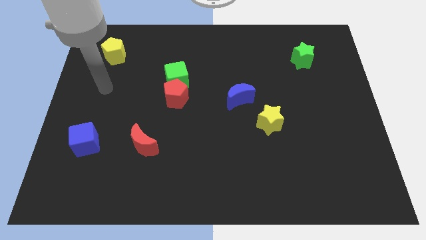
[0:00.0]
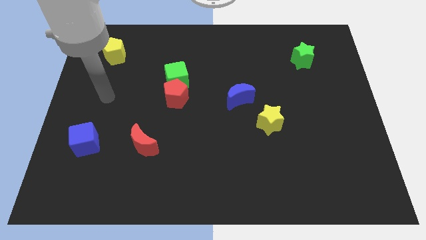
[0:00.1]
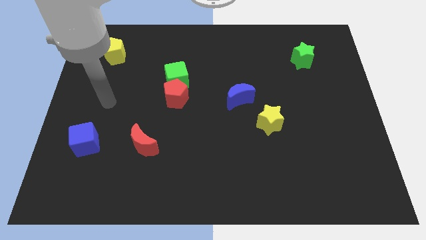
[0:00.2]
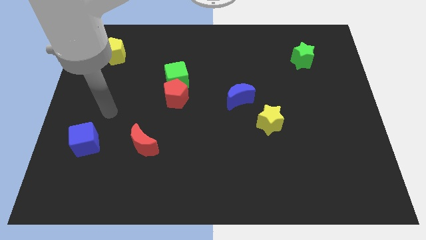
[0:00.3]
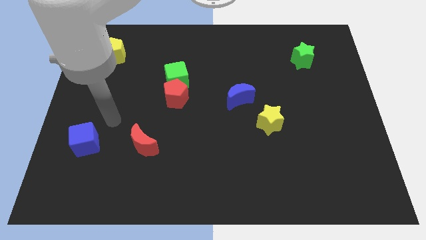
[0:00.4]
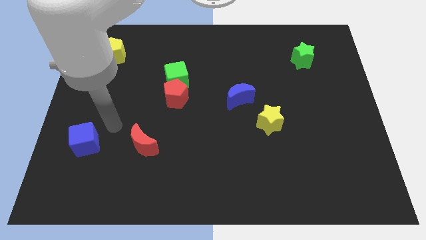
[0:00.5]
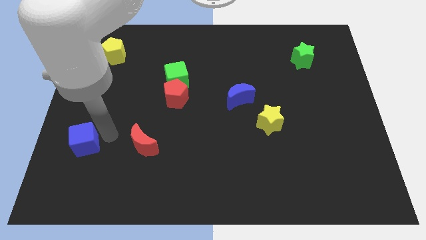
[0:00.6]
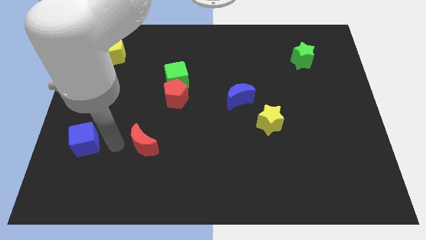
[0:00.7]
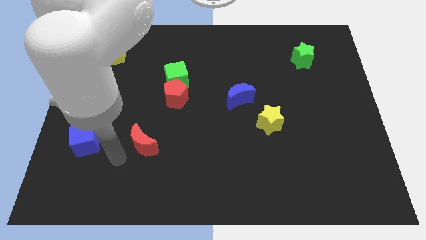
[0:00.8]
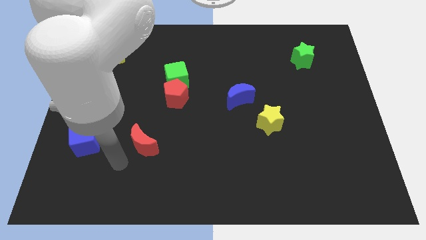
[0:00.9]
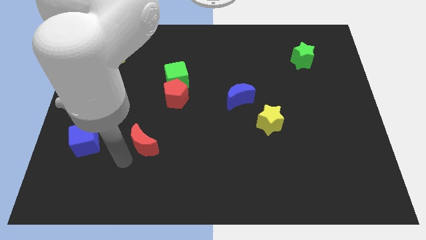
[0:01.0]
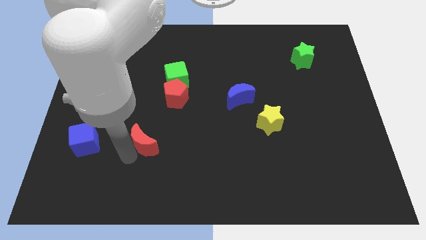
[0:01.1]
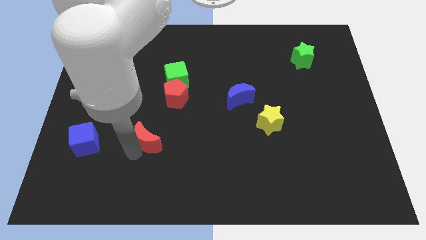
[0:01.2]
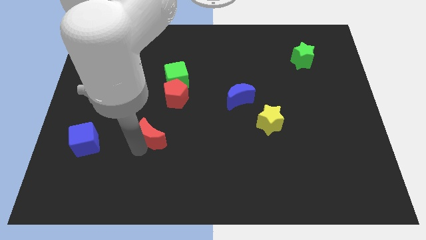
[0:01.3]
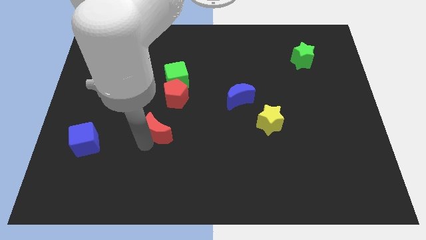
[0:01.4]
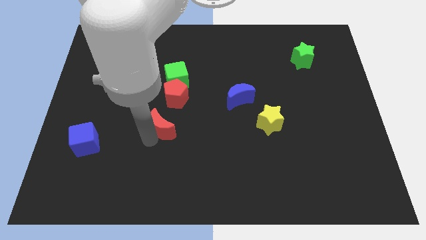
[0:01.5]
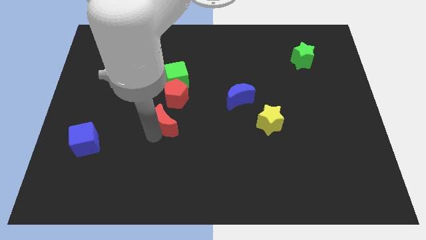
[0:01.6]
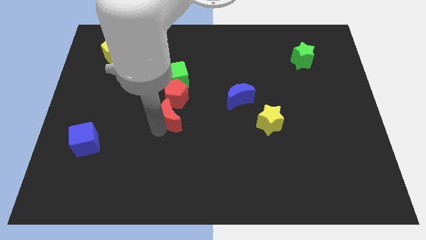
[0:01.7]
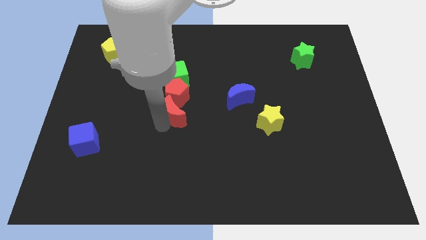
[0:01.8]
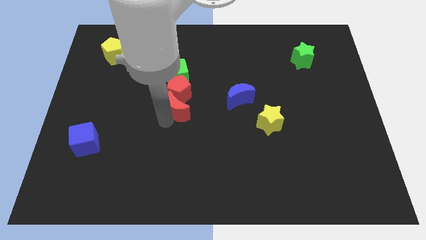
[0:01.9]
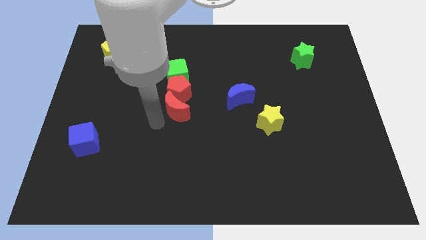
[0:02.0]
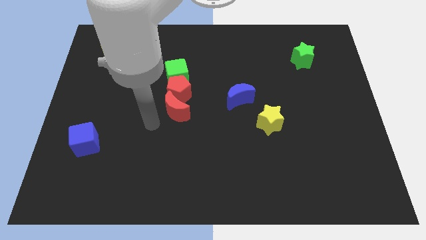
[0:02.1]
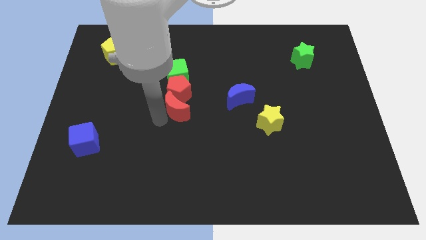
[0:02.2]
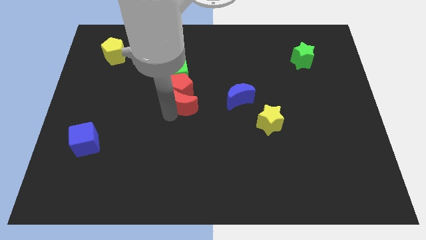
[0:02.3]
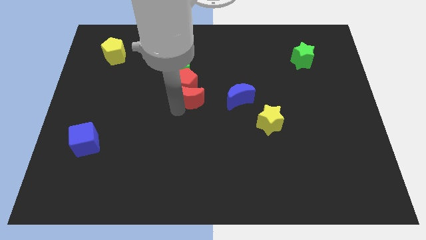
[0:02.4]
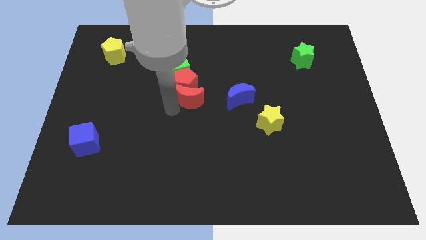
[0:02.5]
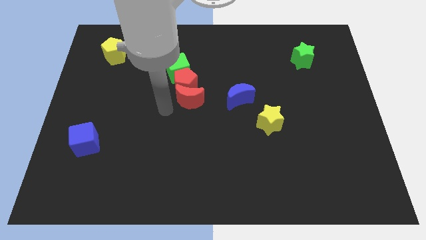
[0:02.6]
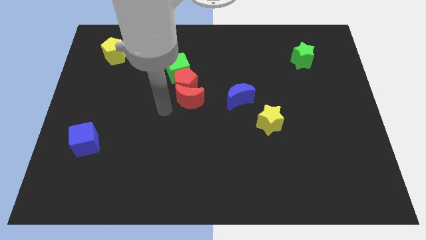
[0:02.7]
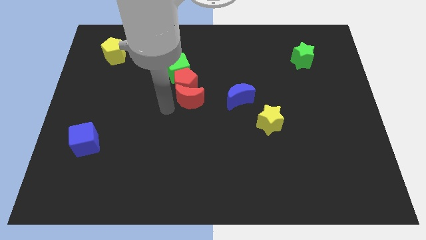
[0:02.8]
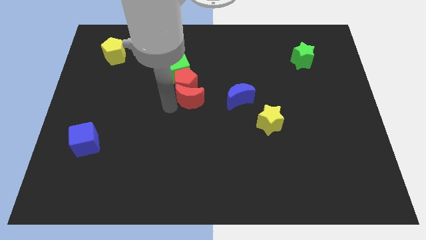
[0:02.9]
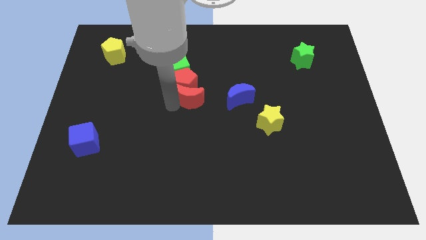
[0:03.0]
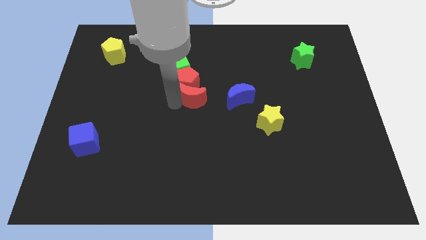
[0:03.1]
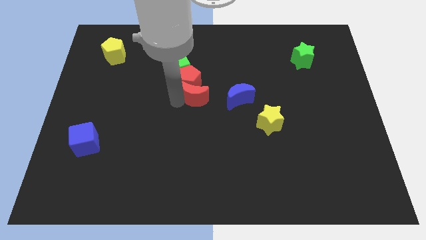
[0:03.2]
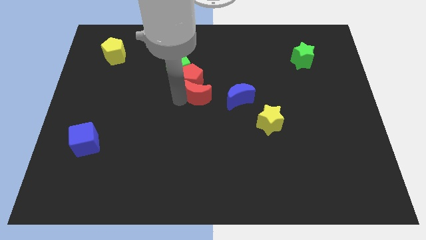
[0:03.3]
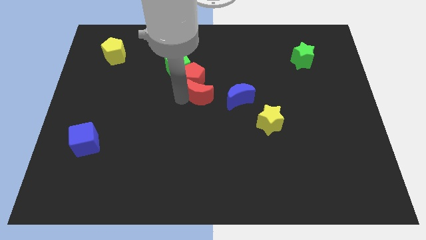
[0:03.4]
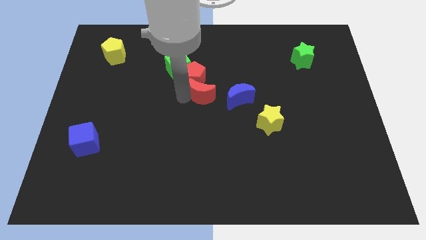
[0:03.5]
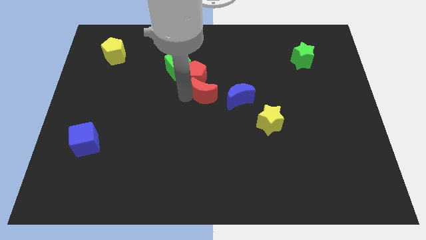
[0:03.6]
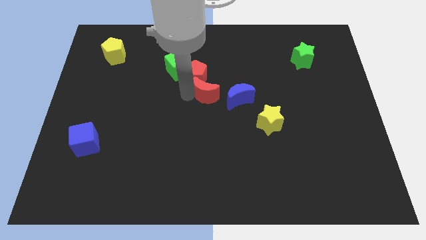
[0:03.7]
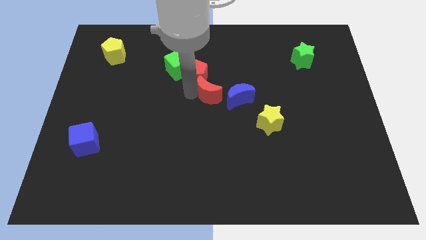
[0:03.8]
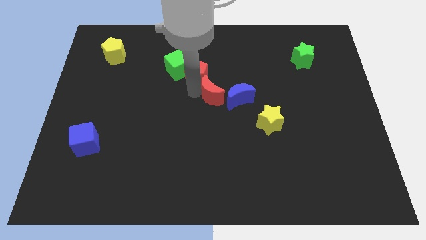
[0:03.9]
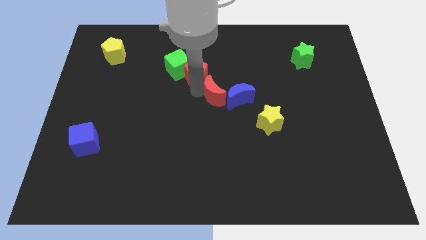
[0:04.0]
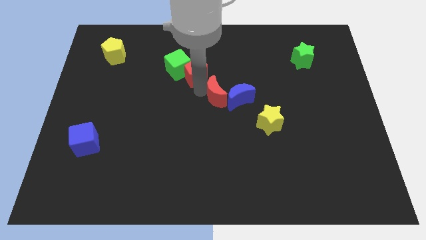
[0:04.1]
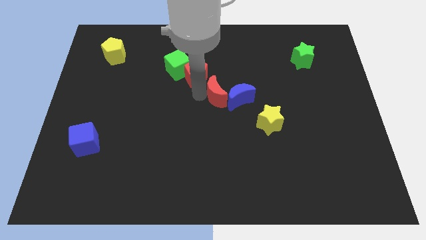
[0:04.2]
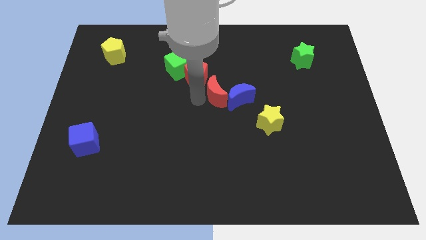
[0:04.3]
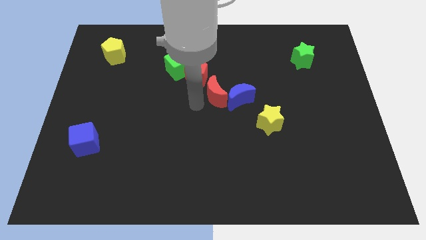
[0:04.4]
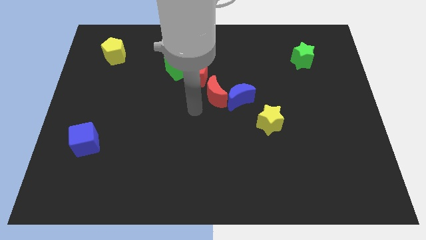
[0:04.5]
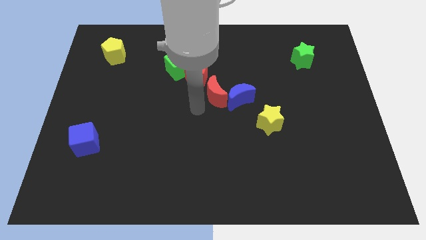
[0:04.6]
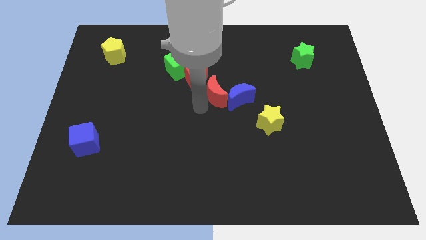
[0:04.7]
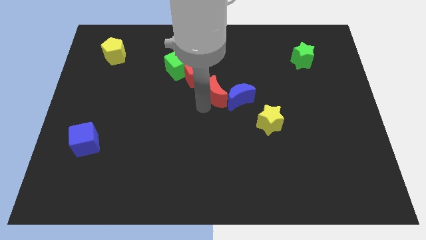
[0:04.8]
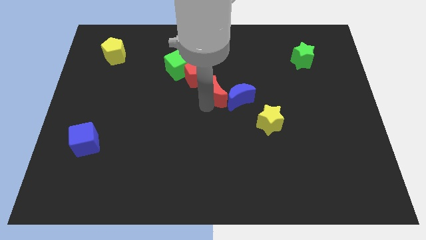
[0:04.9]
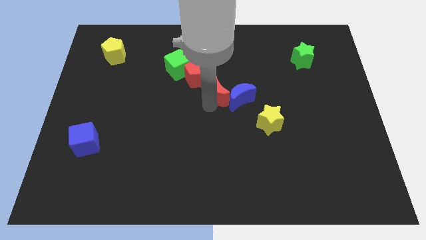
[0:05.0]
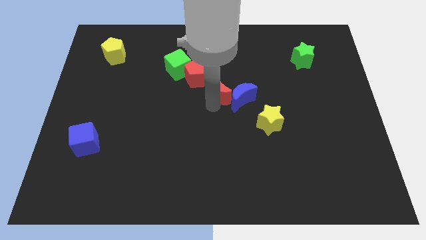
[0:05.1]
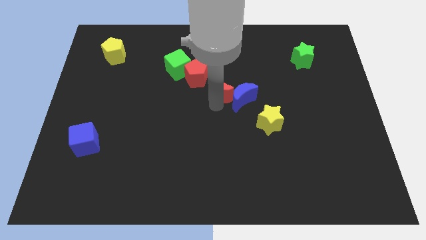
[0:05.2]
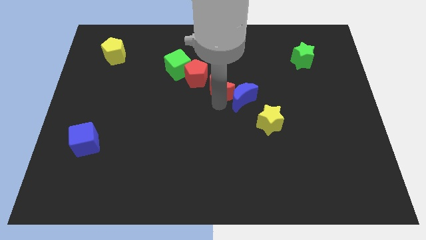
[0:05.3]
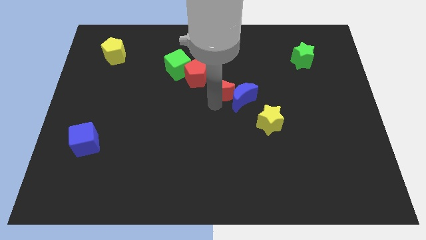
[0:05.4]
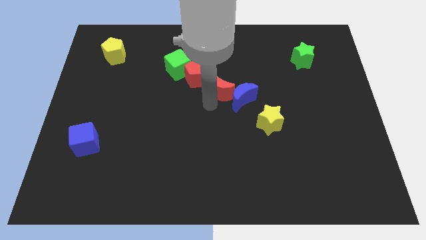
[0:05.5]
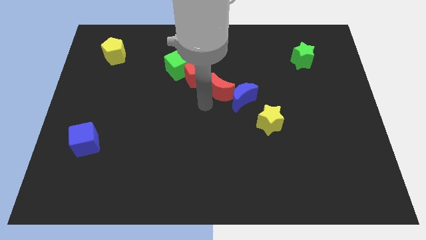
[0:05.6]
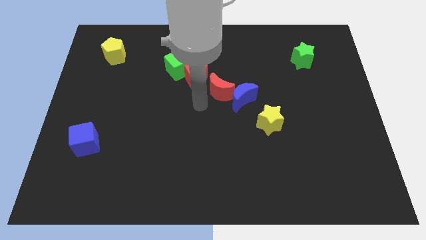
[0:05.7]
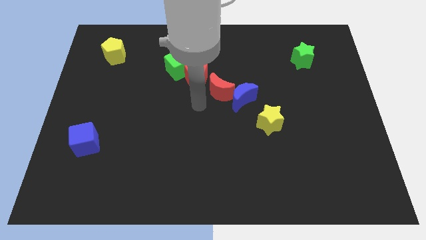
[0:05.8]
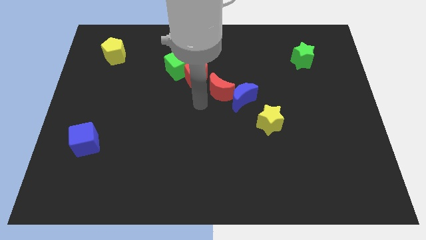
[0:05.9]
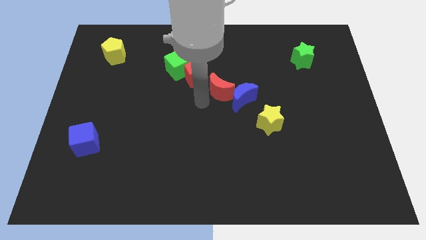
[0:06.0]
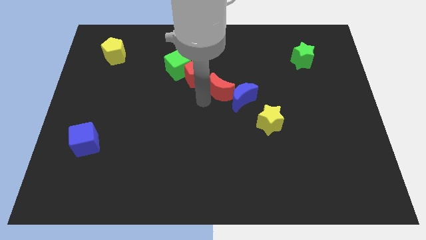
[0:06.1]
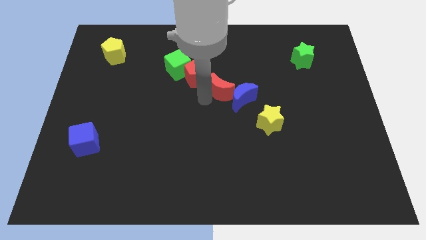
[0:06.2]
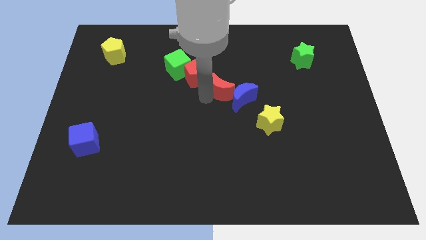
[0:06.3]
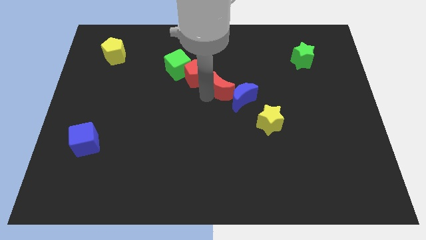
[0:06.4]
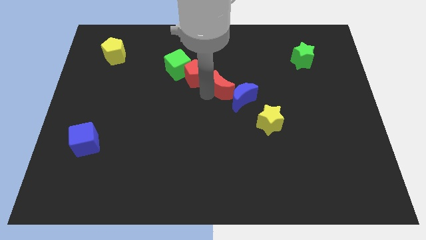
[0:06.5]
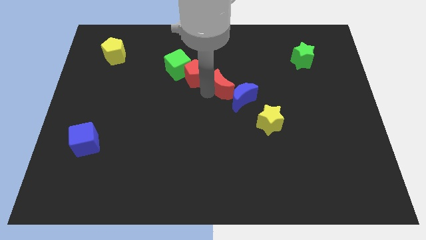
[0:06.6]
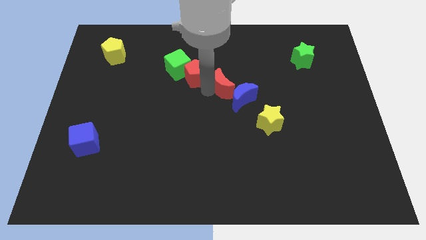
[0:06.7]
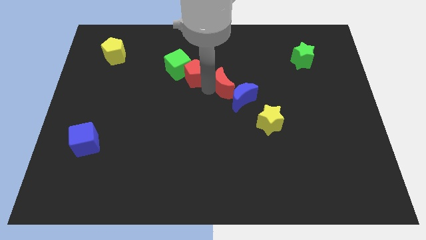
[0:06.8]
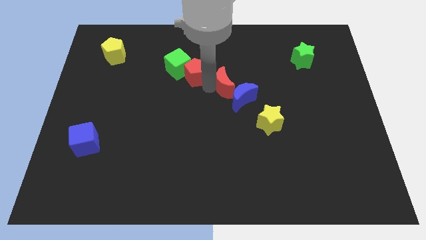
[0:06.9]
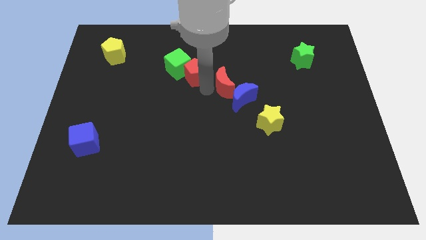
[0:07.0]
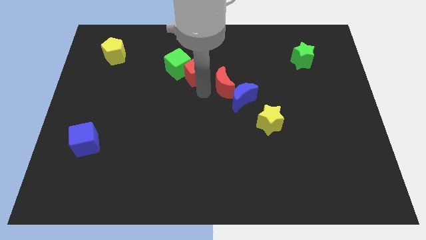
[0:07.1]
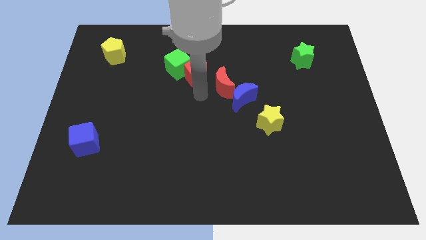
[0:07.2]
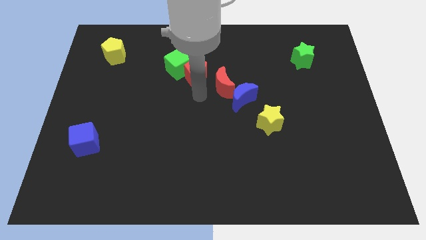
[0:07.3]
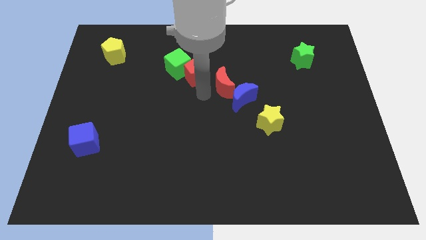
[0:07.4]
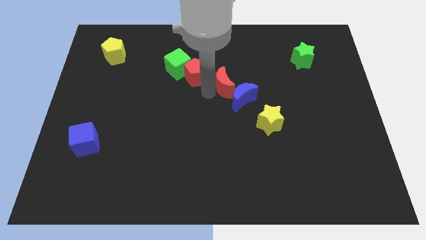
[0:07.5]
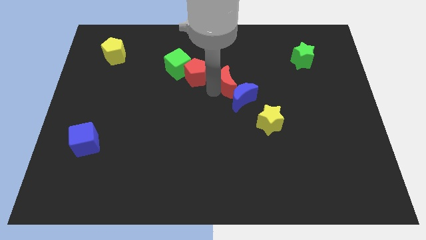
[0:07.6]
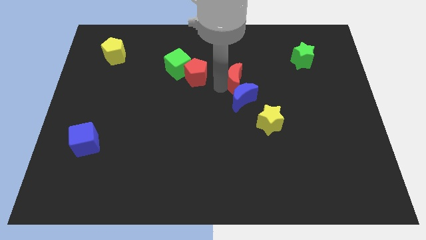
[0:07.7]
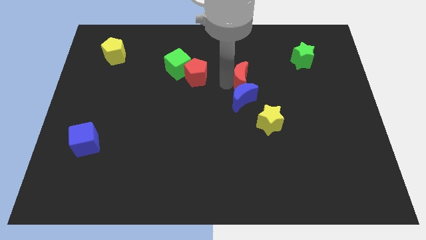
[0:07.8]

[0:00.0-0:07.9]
move the red moon to the top right of the blue moon
